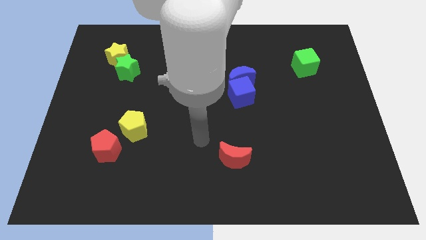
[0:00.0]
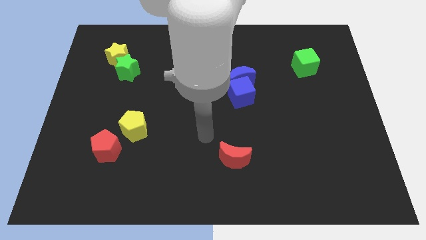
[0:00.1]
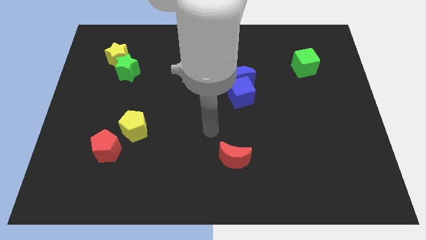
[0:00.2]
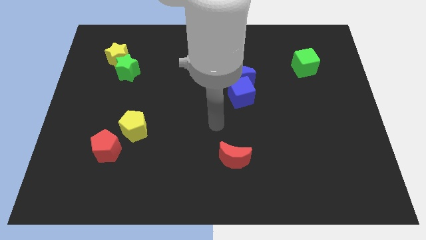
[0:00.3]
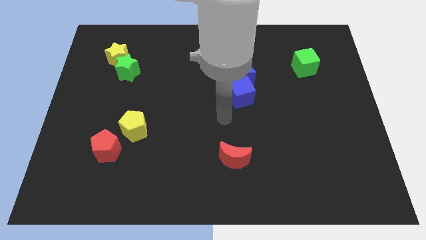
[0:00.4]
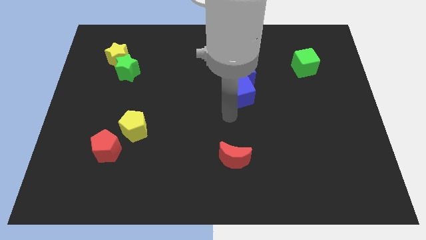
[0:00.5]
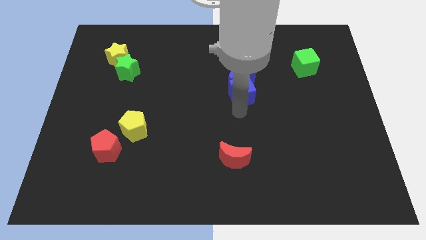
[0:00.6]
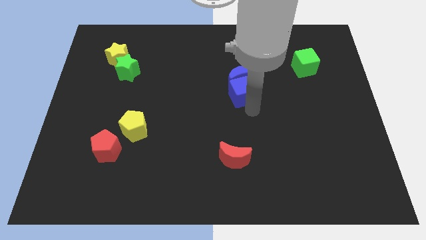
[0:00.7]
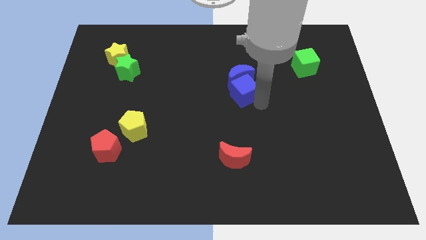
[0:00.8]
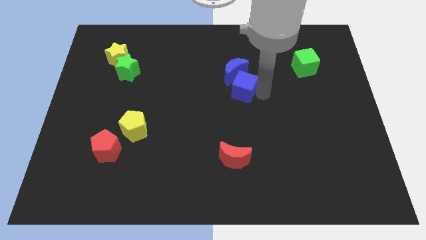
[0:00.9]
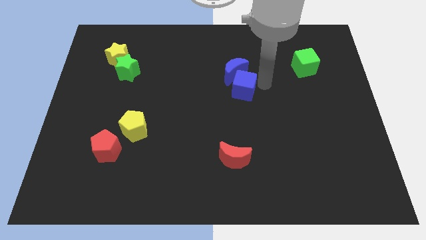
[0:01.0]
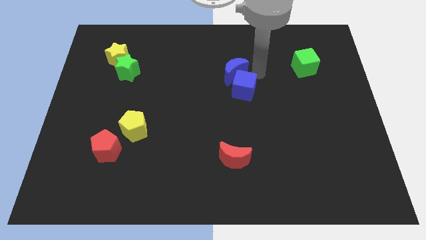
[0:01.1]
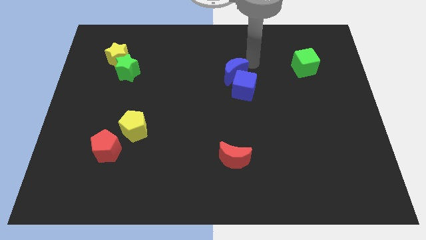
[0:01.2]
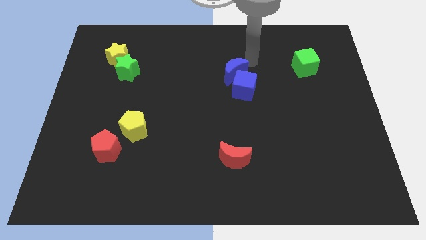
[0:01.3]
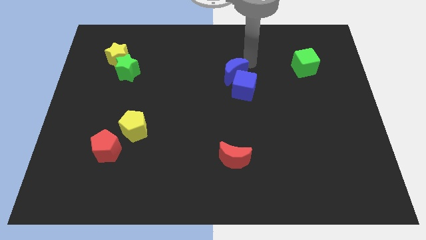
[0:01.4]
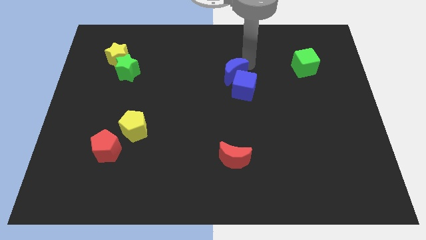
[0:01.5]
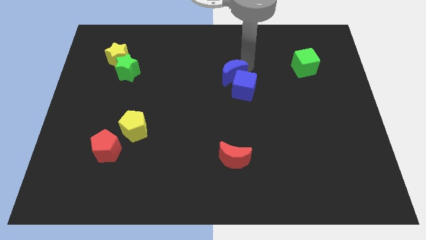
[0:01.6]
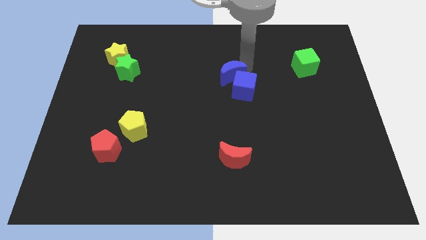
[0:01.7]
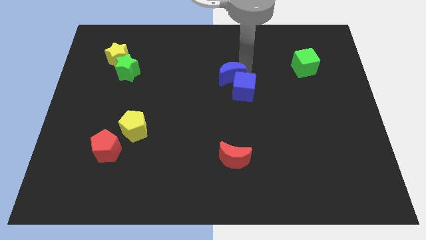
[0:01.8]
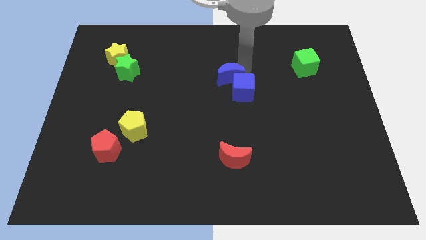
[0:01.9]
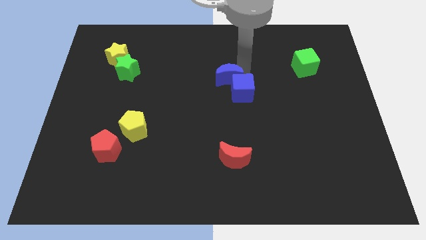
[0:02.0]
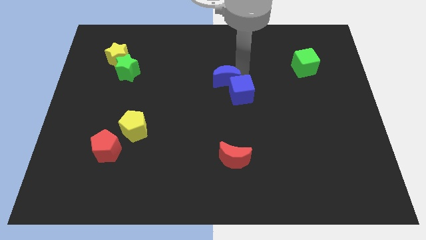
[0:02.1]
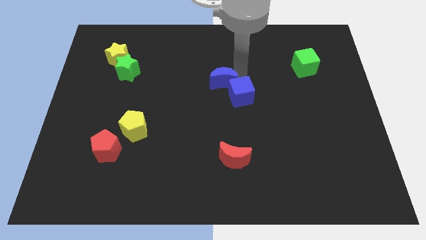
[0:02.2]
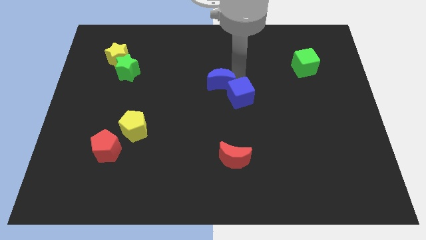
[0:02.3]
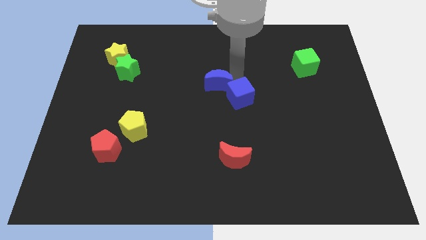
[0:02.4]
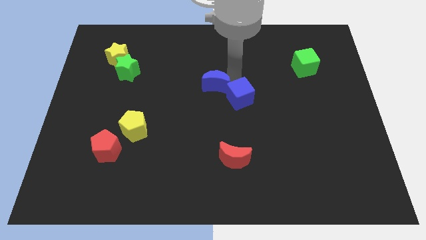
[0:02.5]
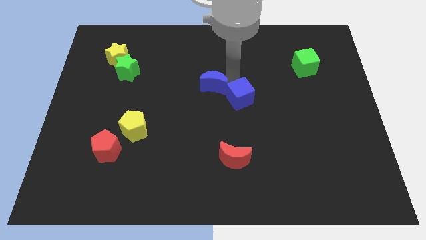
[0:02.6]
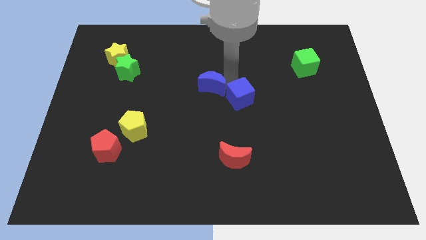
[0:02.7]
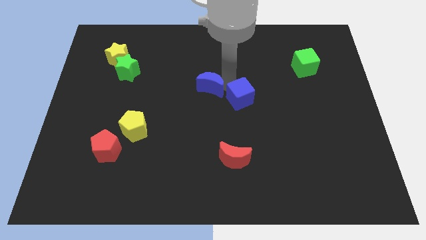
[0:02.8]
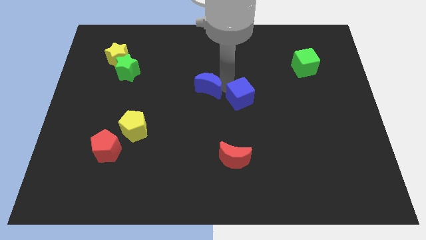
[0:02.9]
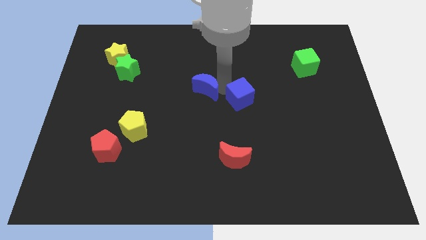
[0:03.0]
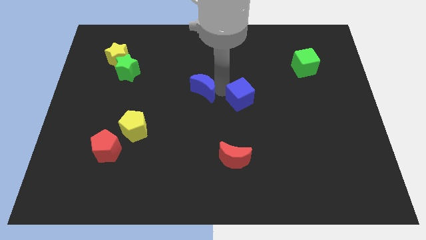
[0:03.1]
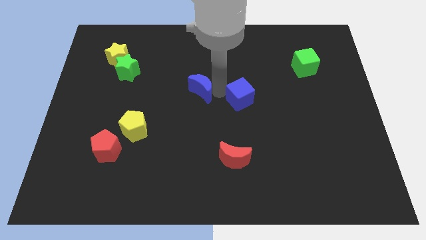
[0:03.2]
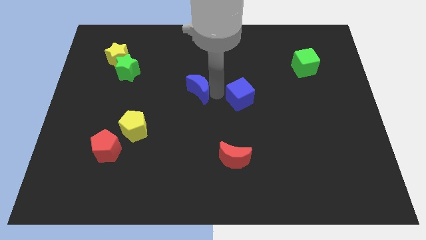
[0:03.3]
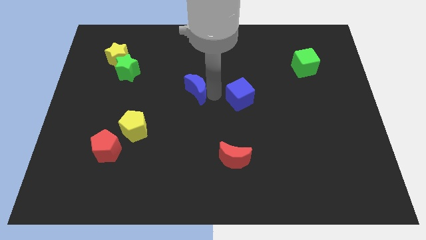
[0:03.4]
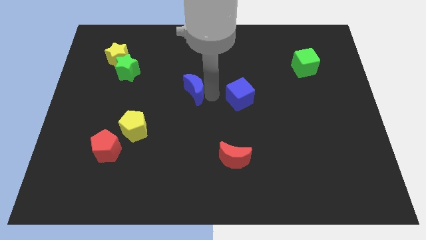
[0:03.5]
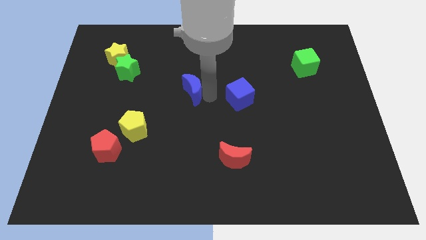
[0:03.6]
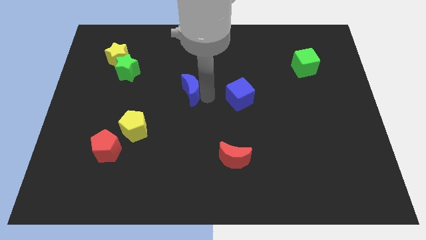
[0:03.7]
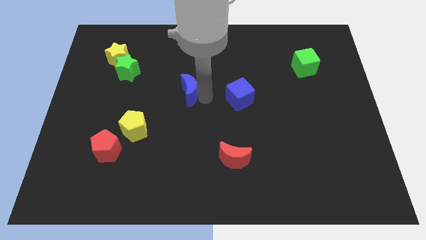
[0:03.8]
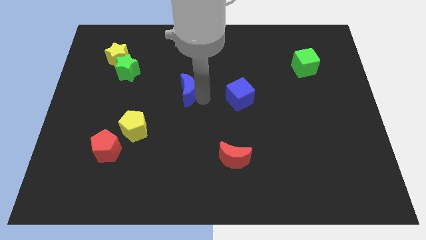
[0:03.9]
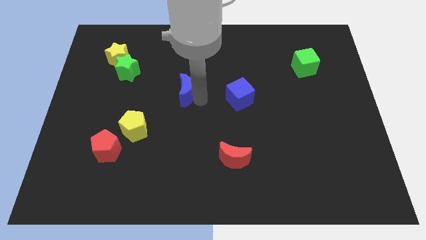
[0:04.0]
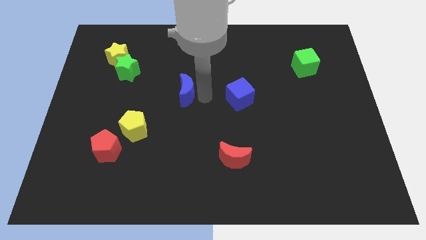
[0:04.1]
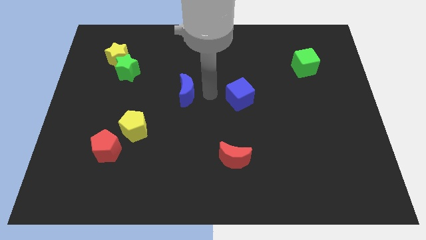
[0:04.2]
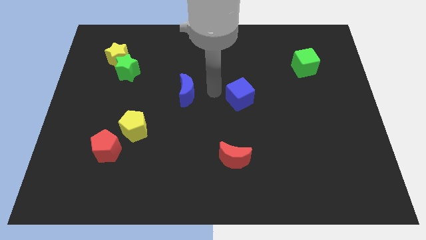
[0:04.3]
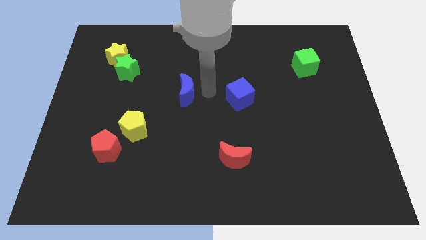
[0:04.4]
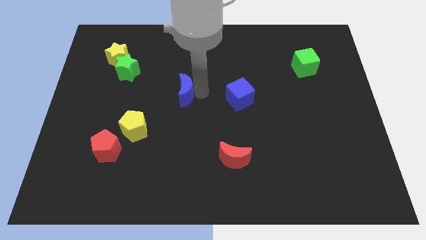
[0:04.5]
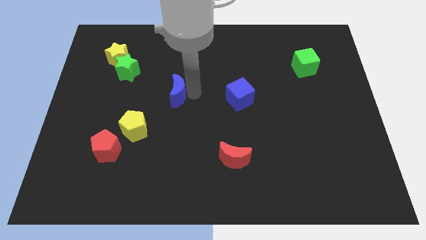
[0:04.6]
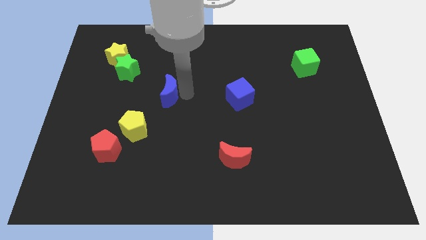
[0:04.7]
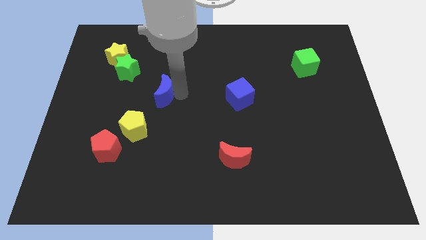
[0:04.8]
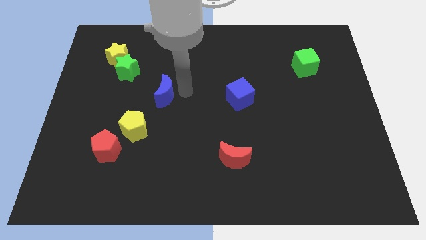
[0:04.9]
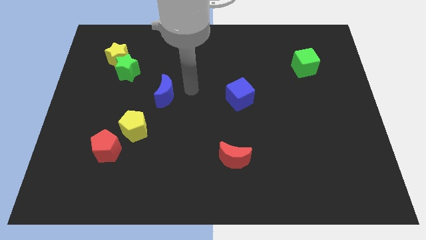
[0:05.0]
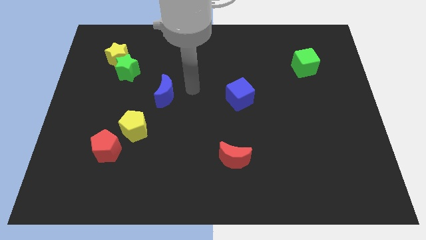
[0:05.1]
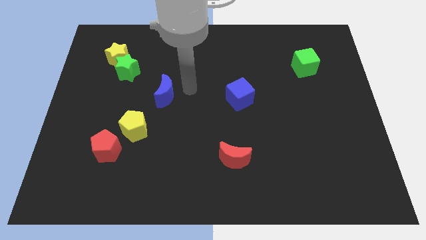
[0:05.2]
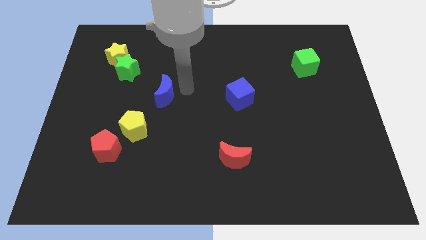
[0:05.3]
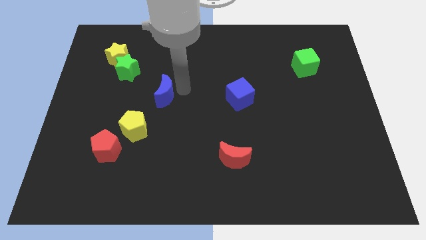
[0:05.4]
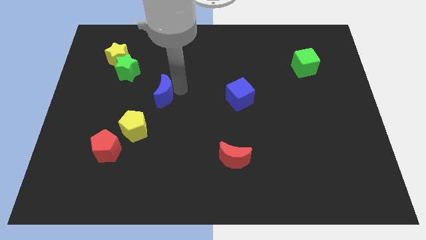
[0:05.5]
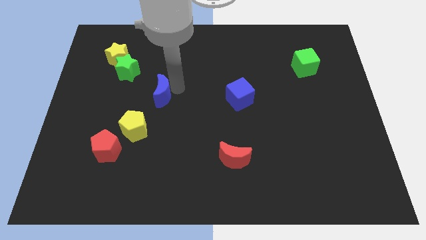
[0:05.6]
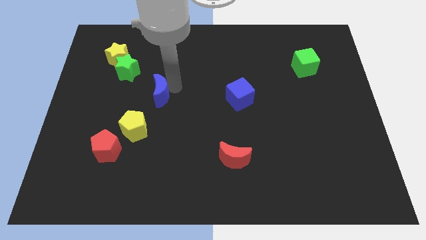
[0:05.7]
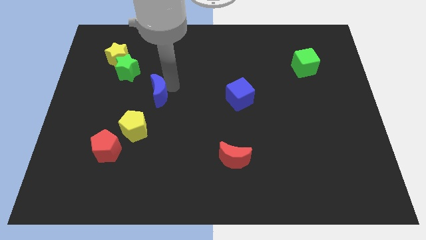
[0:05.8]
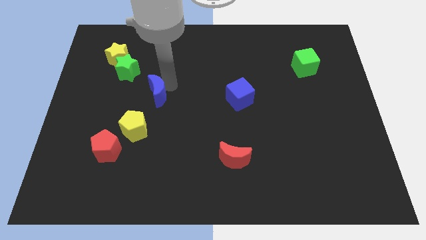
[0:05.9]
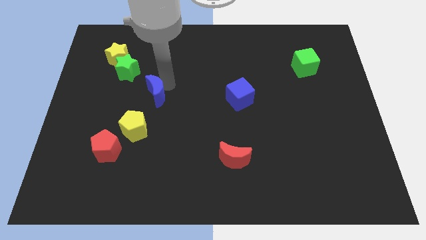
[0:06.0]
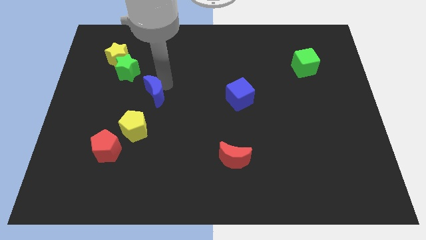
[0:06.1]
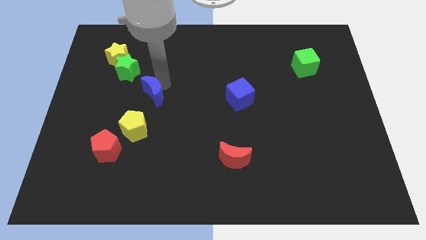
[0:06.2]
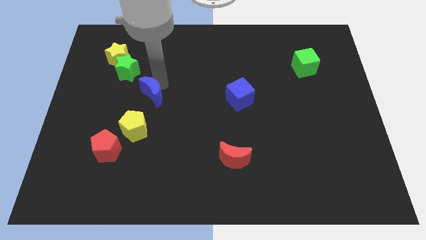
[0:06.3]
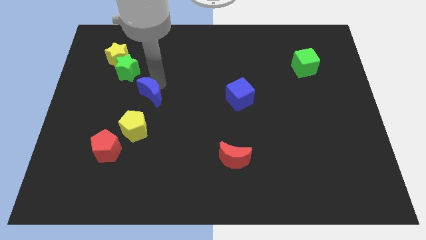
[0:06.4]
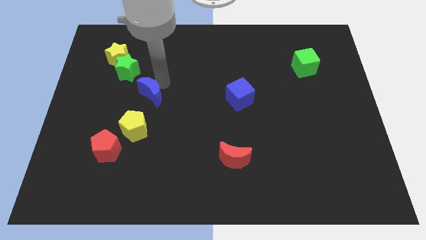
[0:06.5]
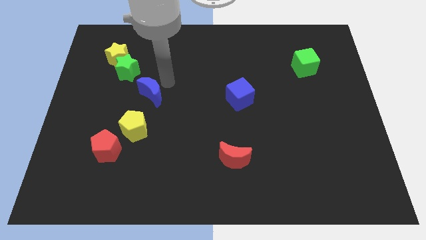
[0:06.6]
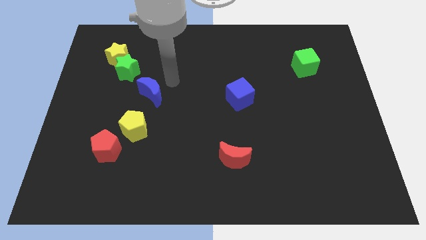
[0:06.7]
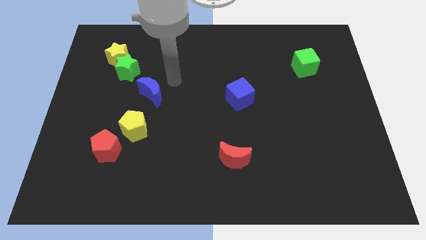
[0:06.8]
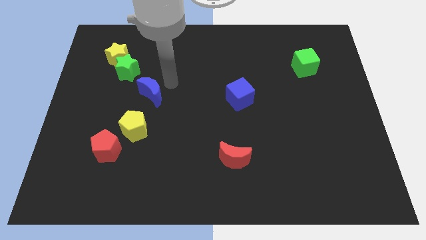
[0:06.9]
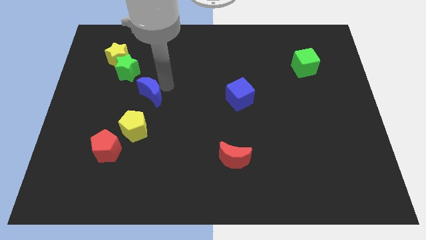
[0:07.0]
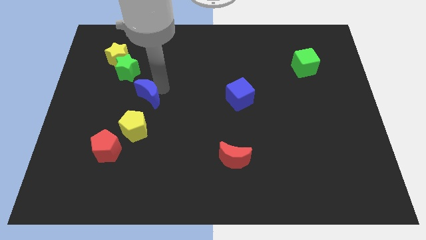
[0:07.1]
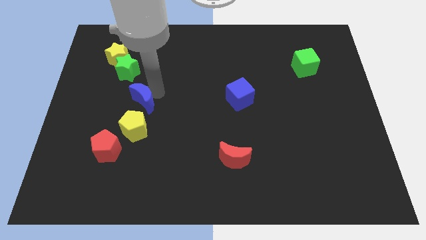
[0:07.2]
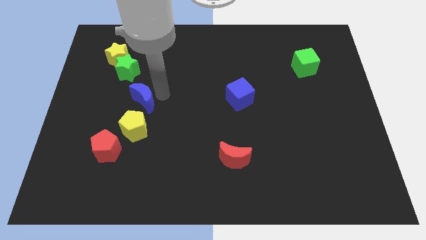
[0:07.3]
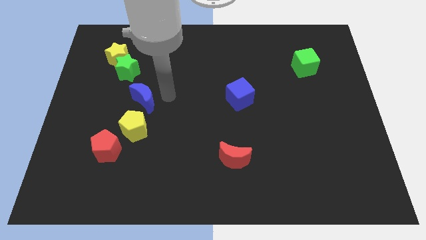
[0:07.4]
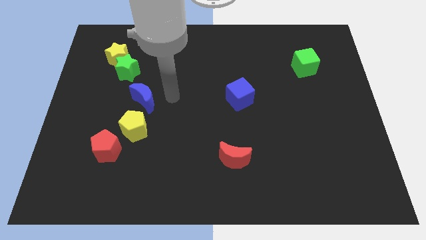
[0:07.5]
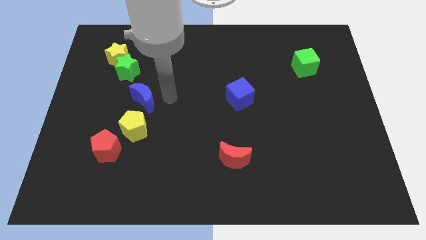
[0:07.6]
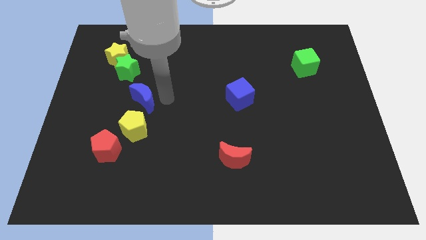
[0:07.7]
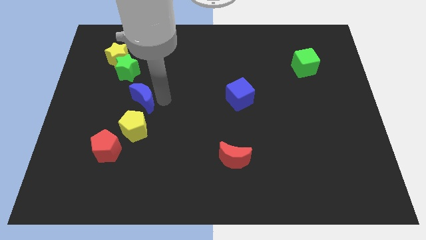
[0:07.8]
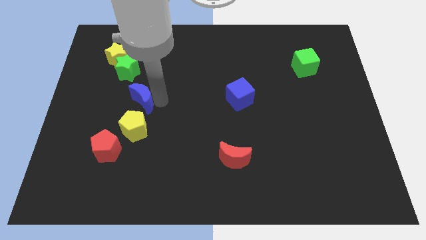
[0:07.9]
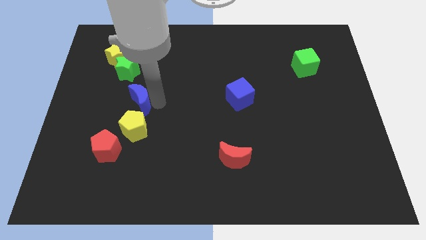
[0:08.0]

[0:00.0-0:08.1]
push the blue moon to the bottom side of the green star
